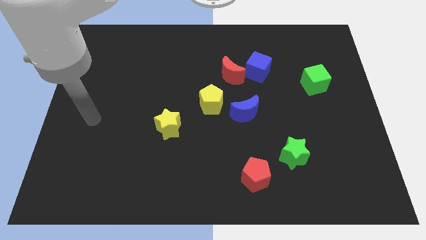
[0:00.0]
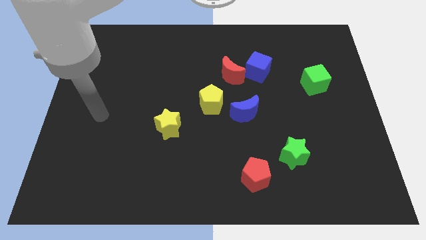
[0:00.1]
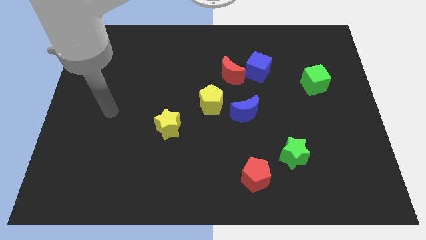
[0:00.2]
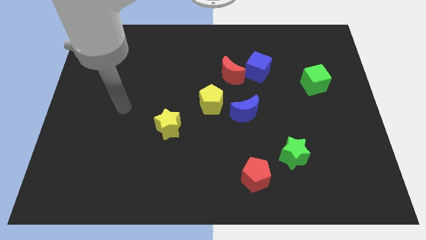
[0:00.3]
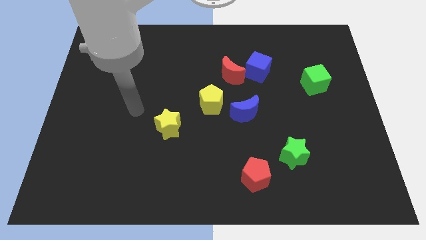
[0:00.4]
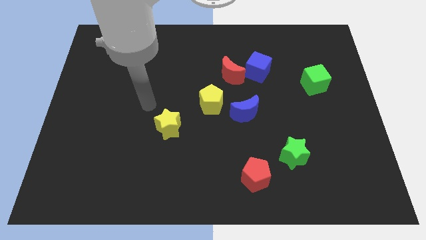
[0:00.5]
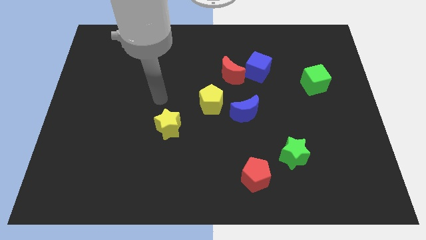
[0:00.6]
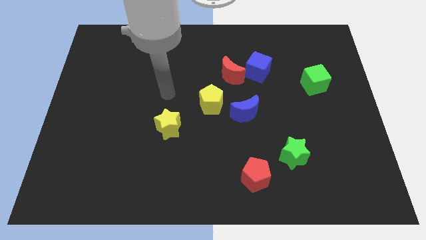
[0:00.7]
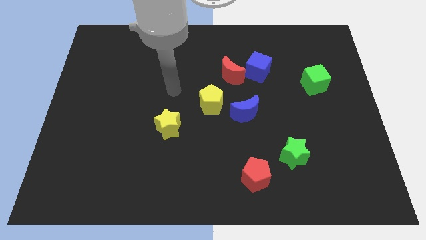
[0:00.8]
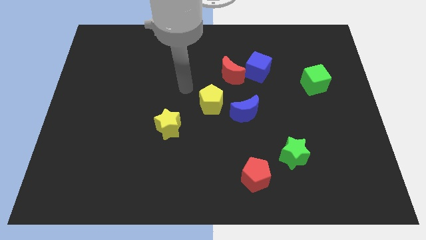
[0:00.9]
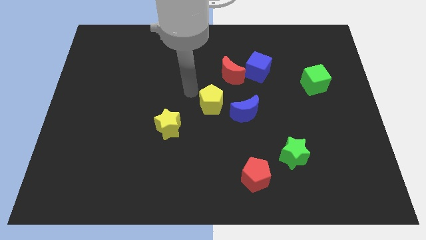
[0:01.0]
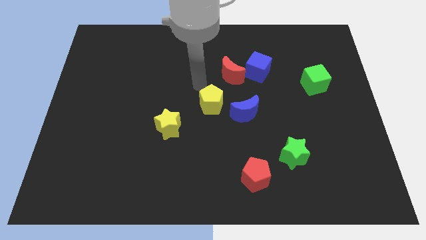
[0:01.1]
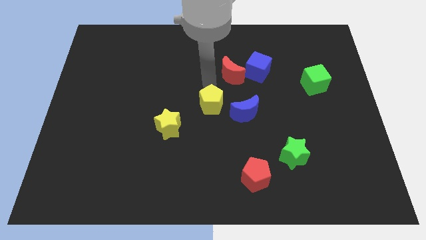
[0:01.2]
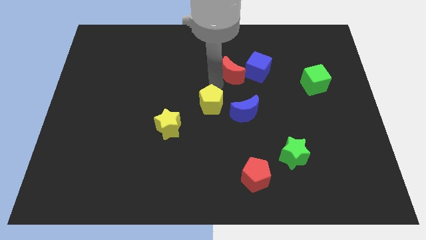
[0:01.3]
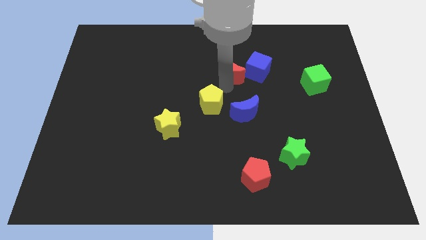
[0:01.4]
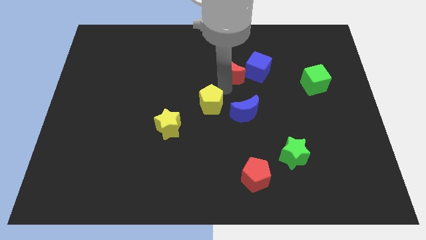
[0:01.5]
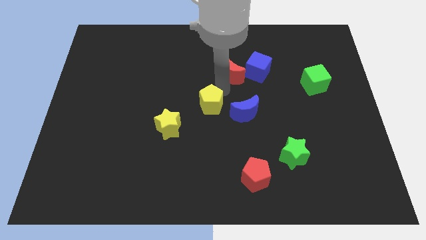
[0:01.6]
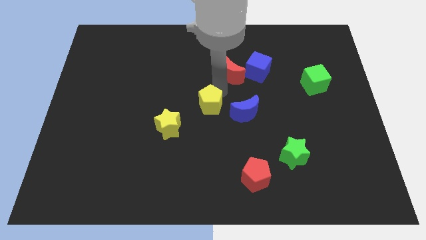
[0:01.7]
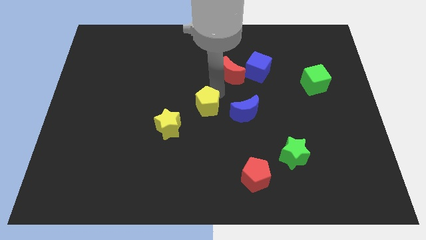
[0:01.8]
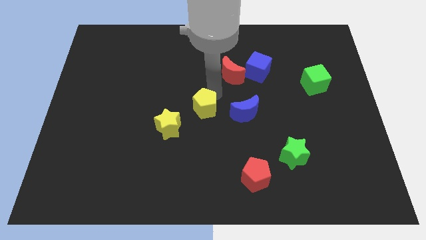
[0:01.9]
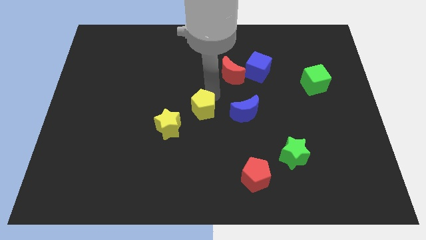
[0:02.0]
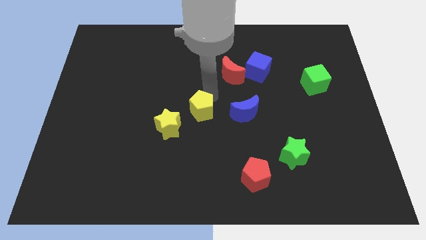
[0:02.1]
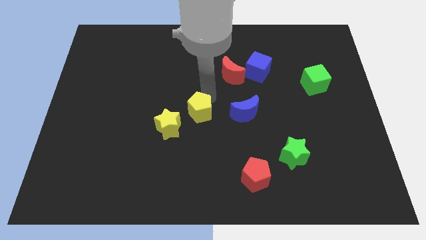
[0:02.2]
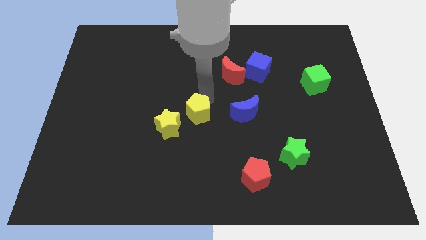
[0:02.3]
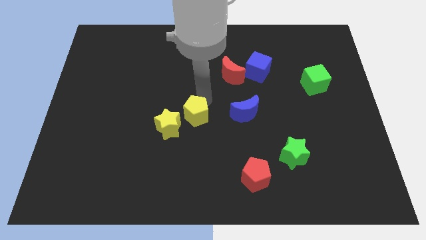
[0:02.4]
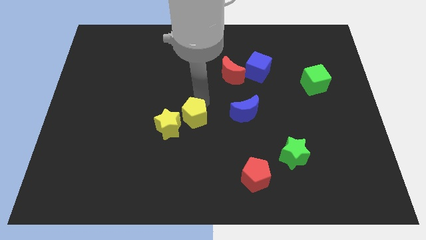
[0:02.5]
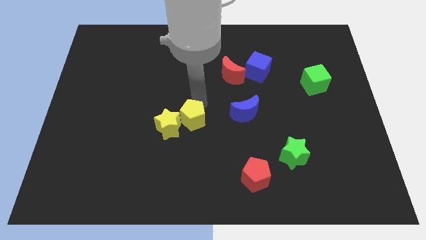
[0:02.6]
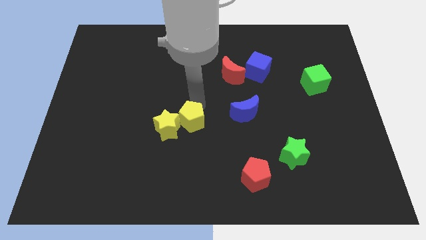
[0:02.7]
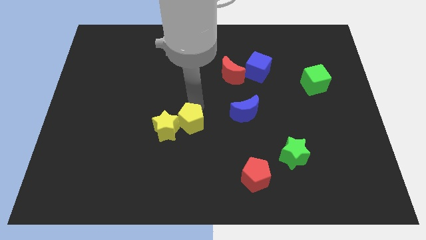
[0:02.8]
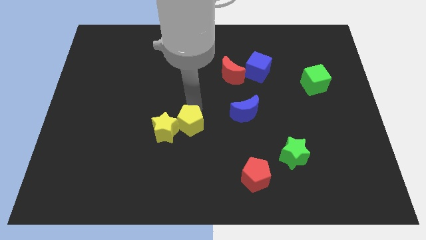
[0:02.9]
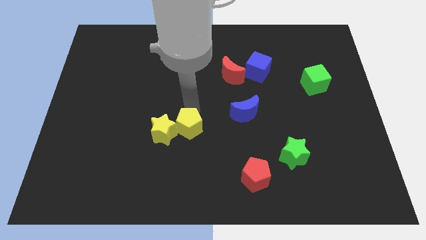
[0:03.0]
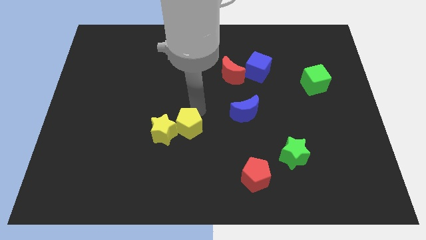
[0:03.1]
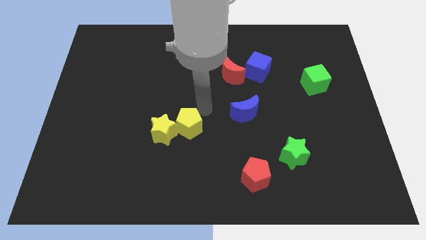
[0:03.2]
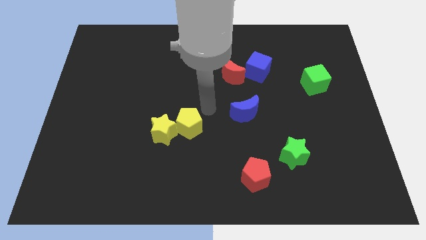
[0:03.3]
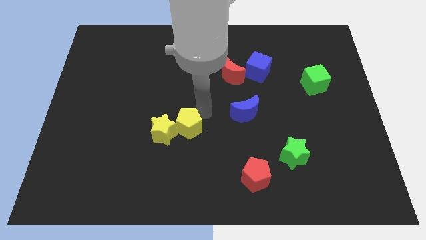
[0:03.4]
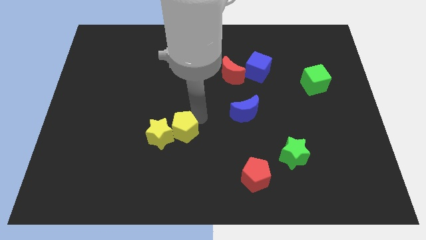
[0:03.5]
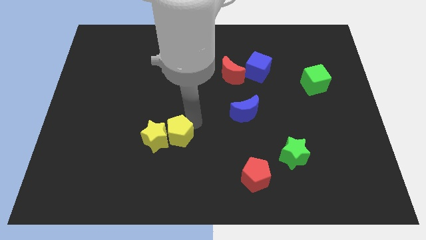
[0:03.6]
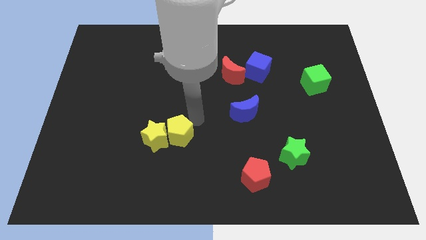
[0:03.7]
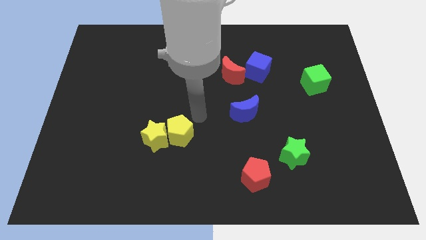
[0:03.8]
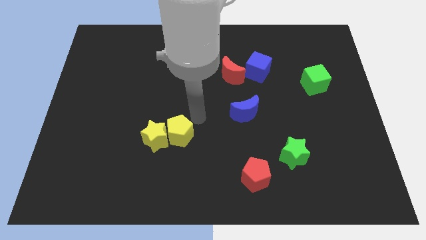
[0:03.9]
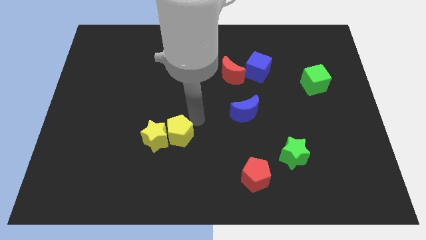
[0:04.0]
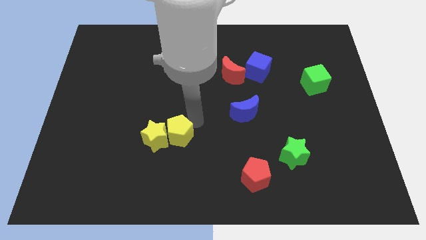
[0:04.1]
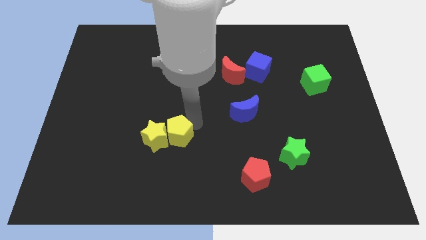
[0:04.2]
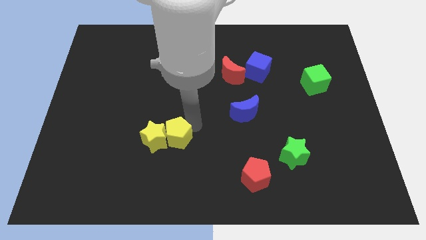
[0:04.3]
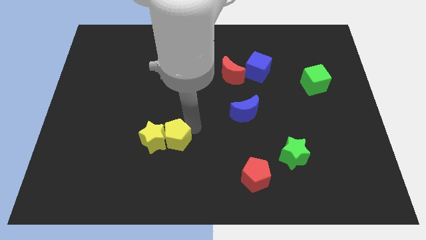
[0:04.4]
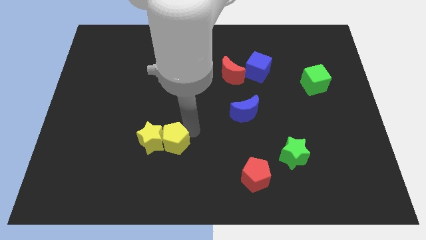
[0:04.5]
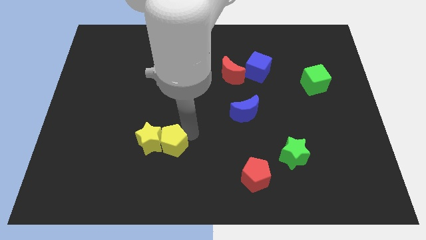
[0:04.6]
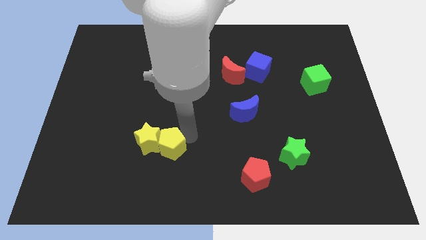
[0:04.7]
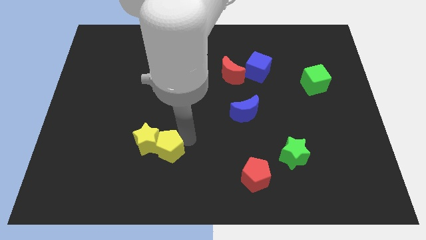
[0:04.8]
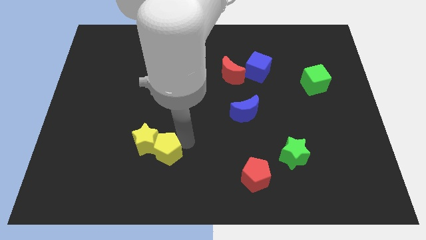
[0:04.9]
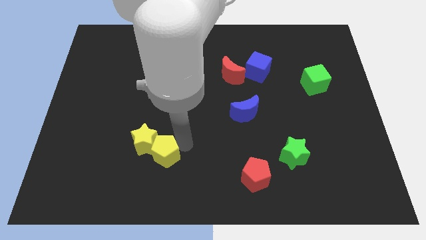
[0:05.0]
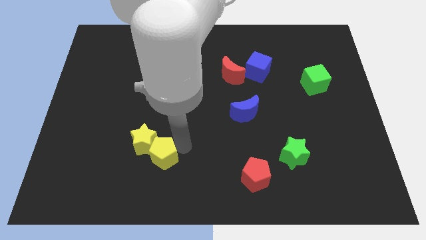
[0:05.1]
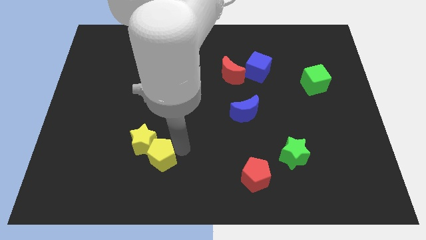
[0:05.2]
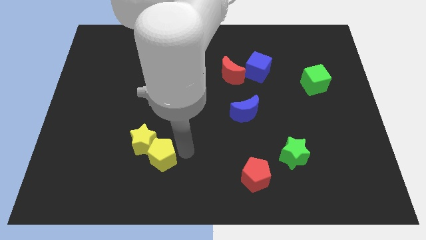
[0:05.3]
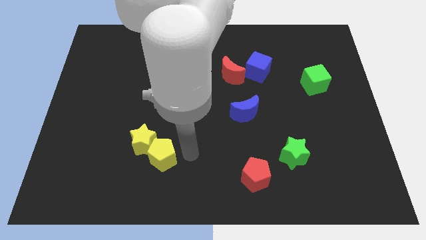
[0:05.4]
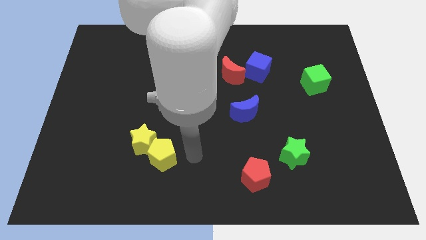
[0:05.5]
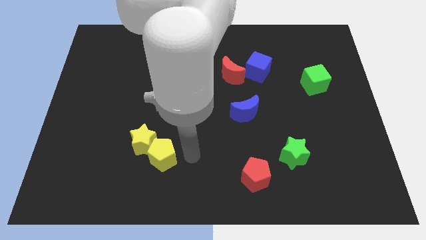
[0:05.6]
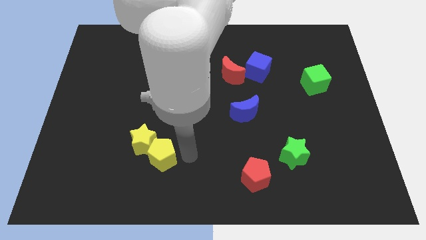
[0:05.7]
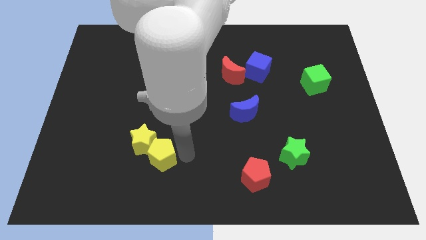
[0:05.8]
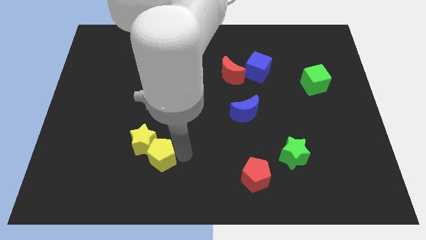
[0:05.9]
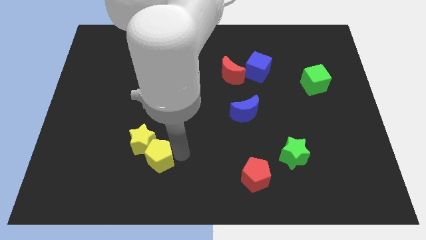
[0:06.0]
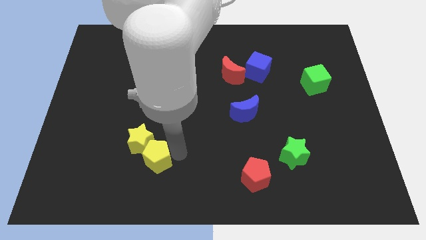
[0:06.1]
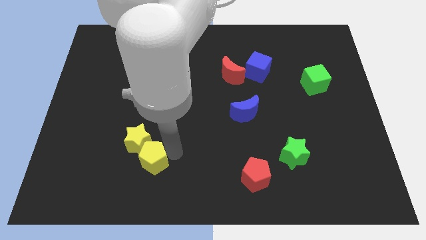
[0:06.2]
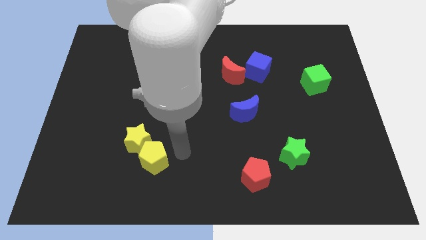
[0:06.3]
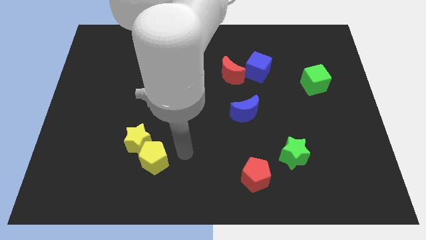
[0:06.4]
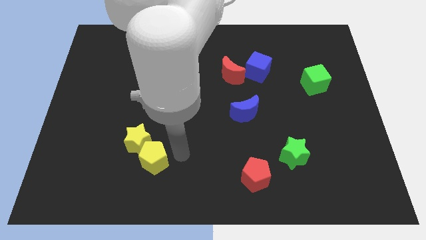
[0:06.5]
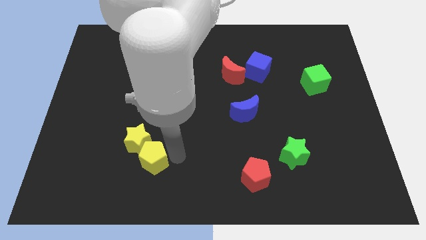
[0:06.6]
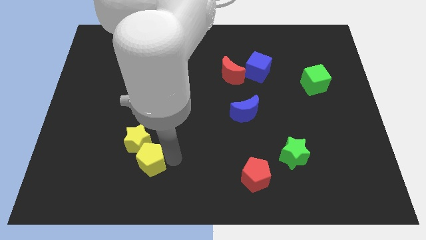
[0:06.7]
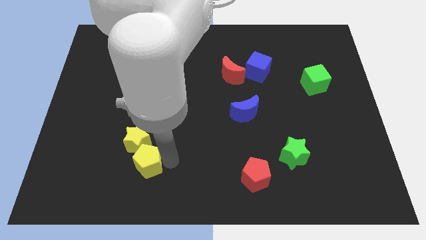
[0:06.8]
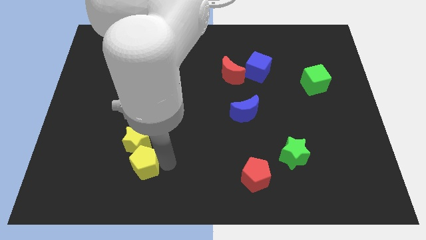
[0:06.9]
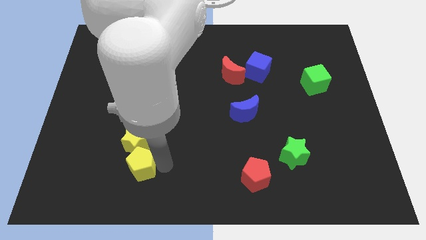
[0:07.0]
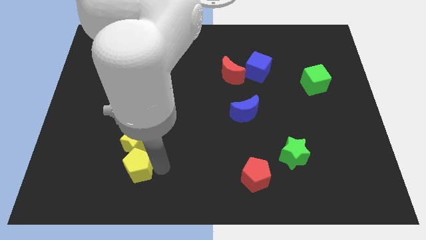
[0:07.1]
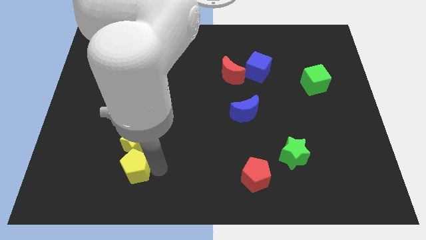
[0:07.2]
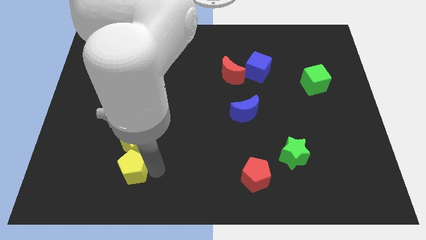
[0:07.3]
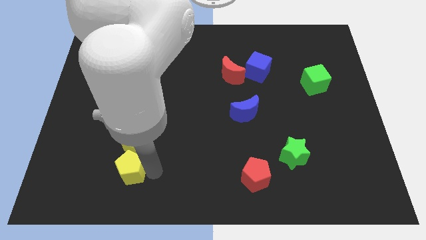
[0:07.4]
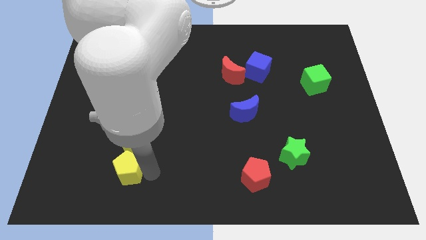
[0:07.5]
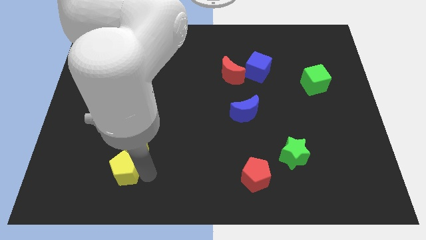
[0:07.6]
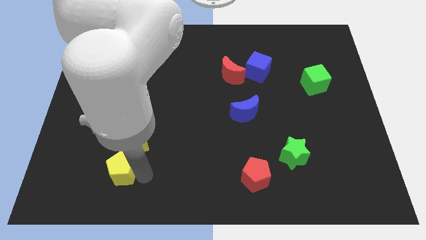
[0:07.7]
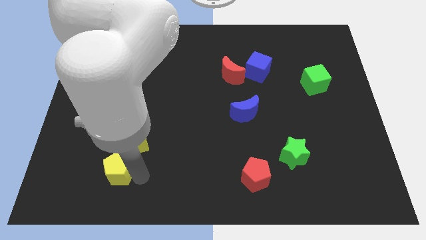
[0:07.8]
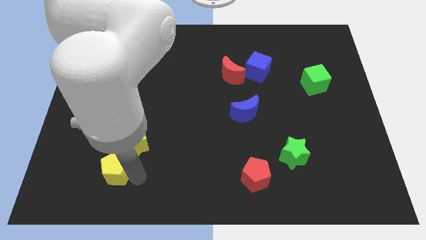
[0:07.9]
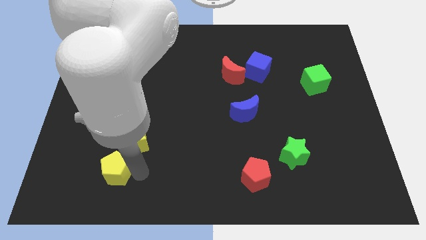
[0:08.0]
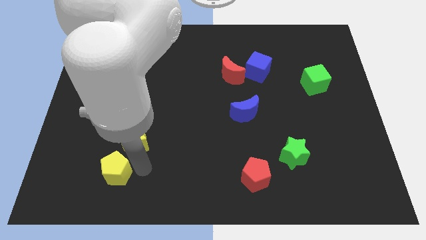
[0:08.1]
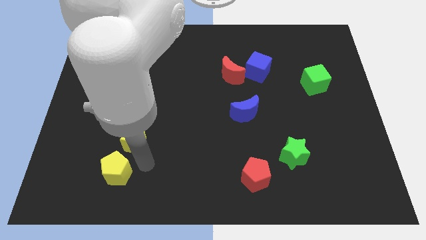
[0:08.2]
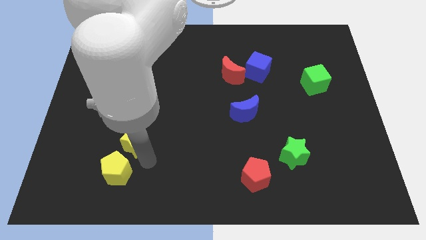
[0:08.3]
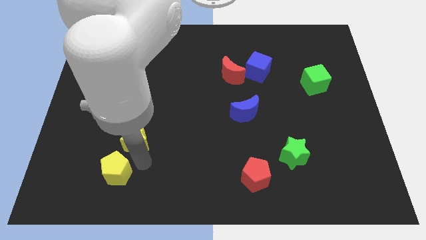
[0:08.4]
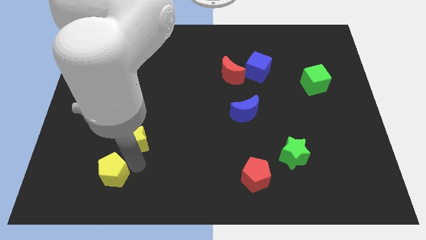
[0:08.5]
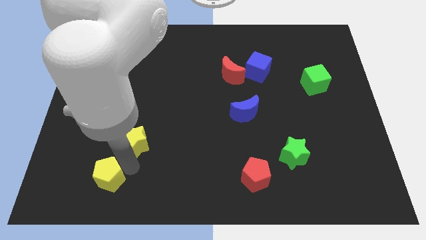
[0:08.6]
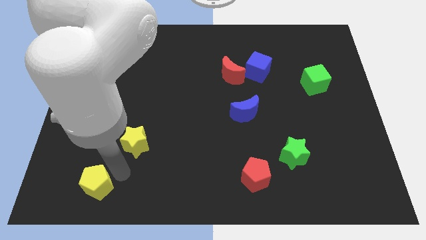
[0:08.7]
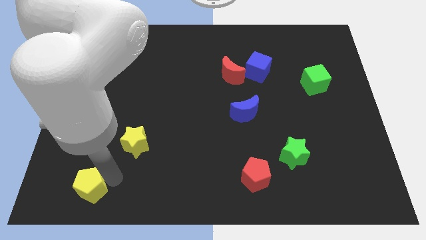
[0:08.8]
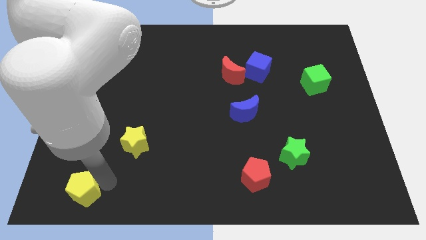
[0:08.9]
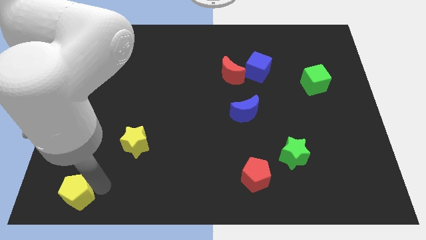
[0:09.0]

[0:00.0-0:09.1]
put the yellow pentagon to the bottom left of the board
